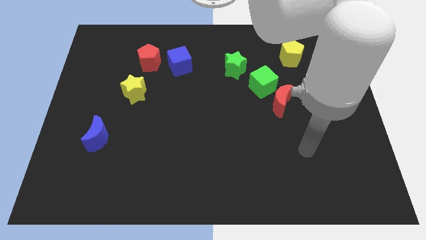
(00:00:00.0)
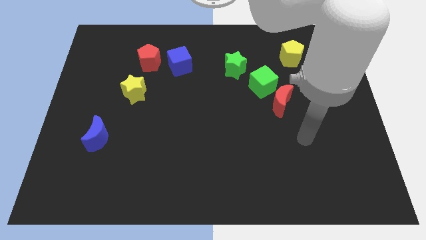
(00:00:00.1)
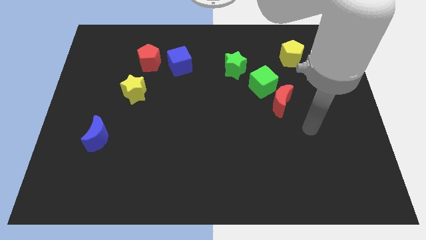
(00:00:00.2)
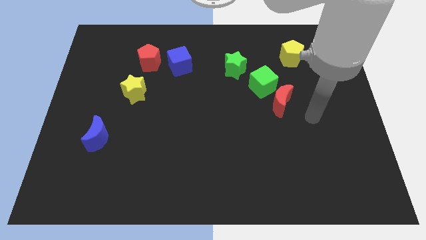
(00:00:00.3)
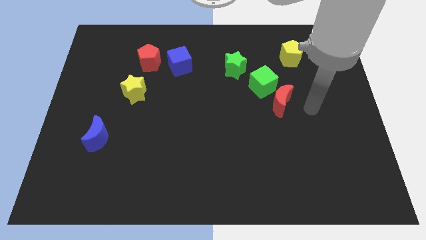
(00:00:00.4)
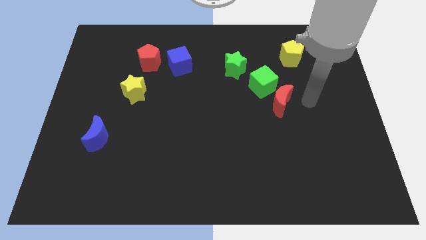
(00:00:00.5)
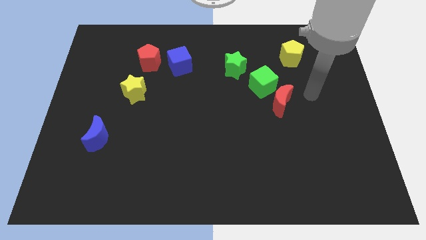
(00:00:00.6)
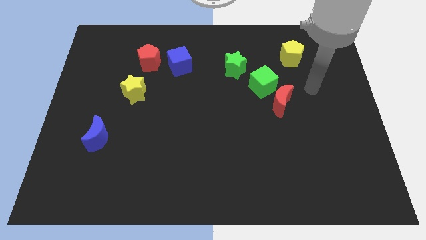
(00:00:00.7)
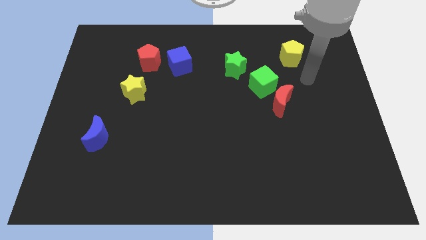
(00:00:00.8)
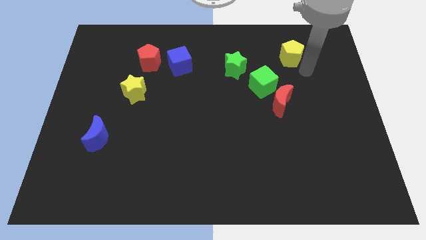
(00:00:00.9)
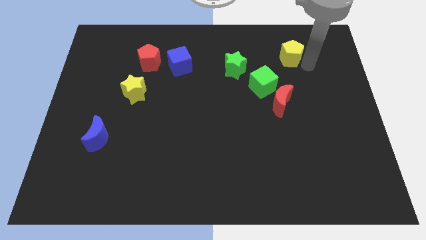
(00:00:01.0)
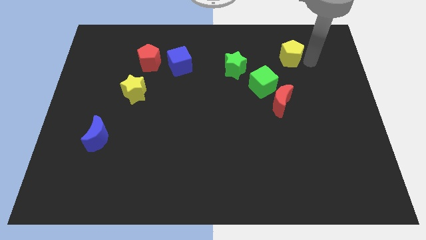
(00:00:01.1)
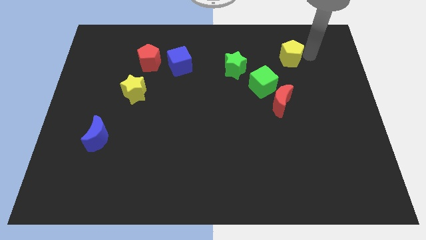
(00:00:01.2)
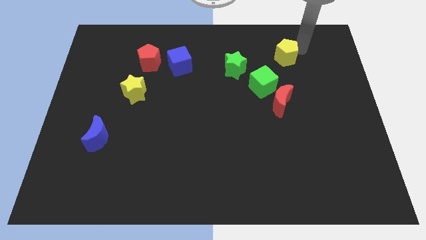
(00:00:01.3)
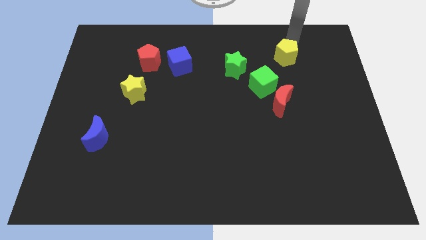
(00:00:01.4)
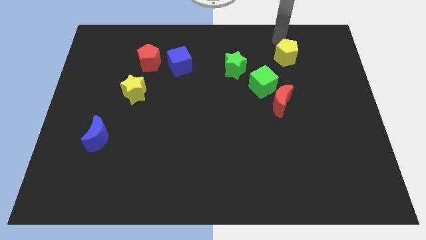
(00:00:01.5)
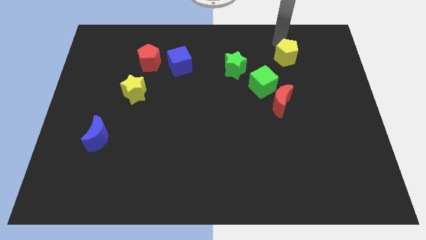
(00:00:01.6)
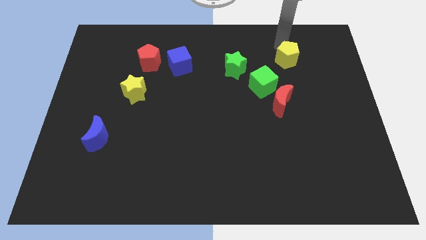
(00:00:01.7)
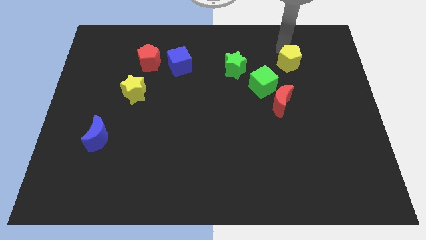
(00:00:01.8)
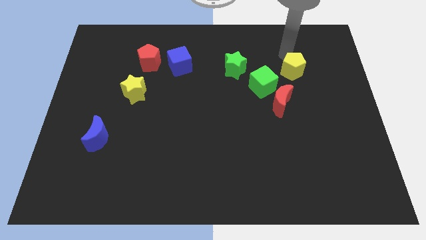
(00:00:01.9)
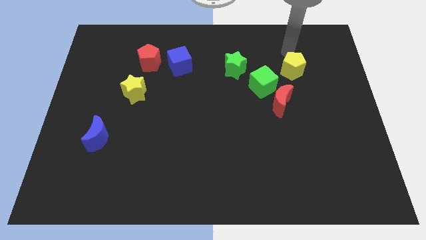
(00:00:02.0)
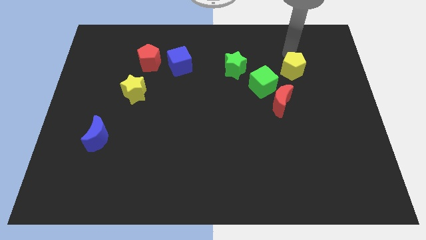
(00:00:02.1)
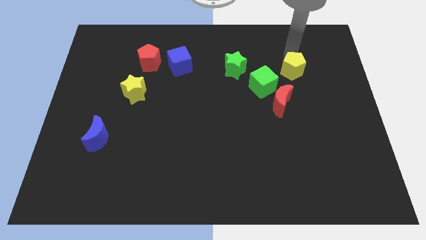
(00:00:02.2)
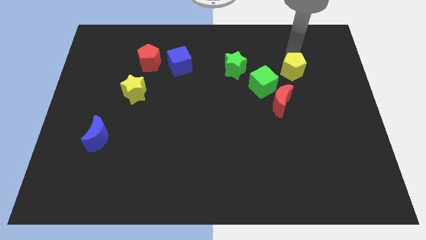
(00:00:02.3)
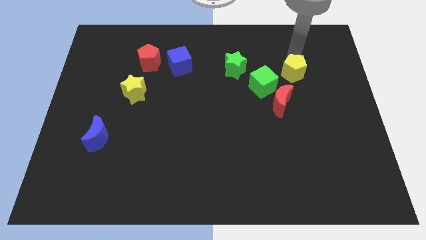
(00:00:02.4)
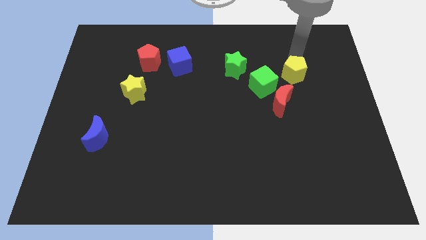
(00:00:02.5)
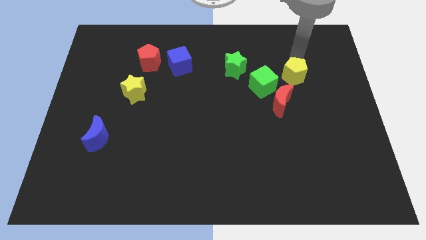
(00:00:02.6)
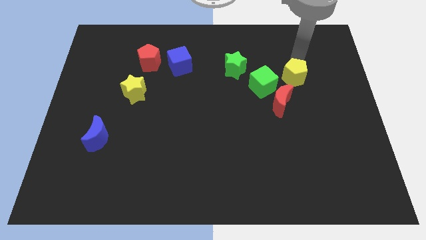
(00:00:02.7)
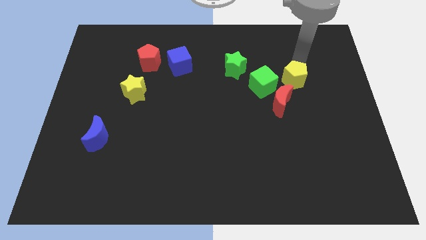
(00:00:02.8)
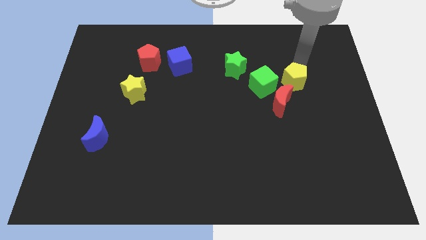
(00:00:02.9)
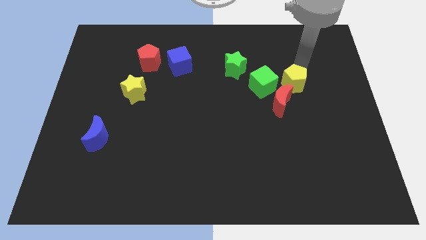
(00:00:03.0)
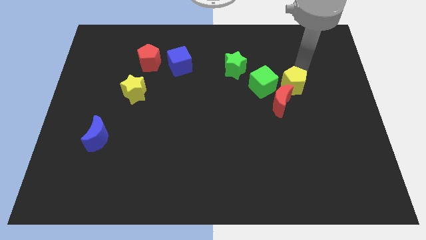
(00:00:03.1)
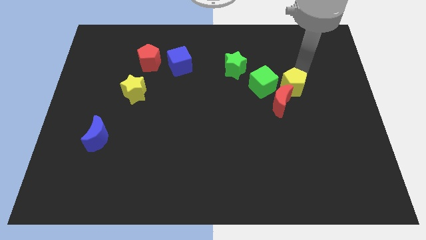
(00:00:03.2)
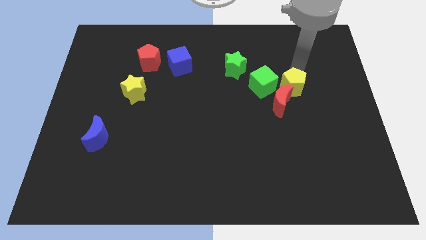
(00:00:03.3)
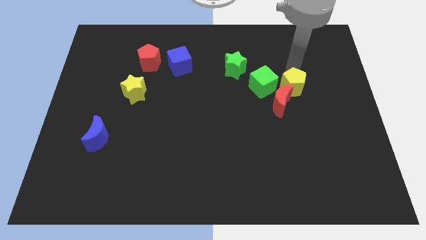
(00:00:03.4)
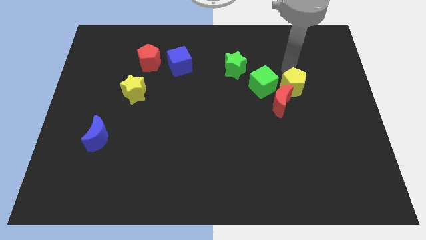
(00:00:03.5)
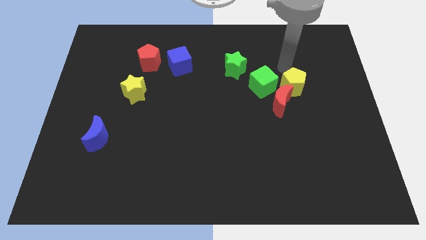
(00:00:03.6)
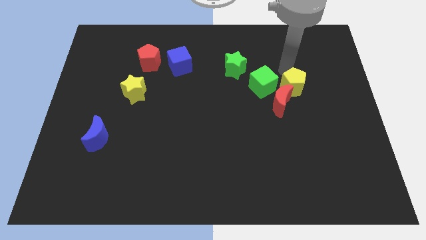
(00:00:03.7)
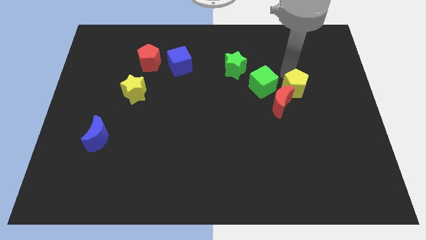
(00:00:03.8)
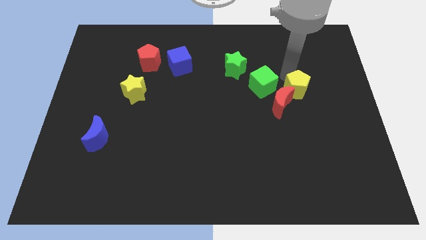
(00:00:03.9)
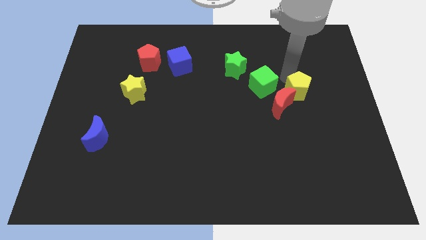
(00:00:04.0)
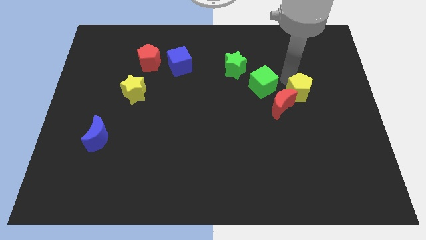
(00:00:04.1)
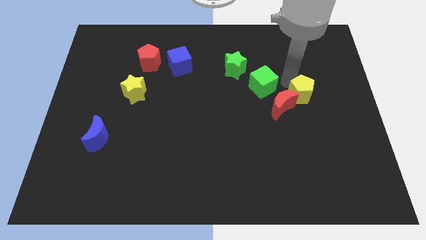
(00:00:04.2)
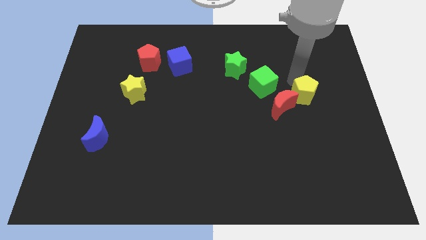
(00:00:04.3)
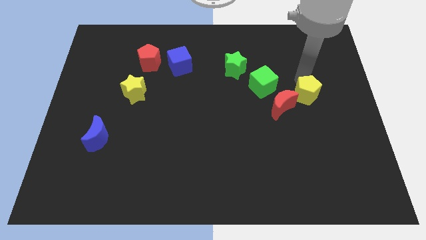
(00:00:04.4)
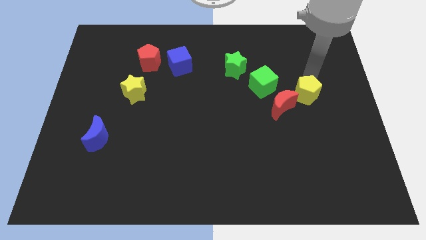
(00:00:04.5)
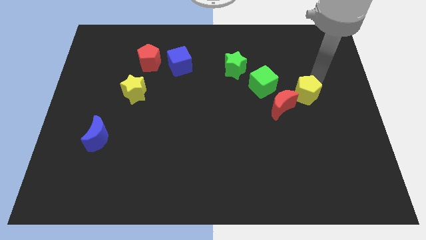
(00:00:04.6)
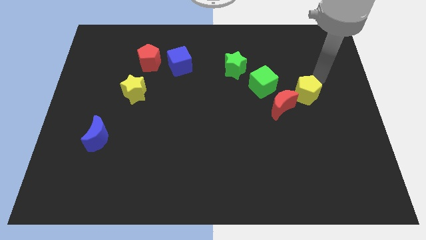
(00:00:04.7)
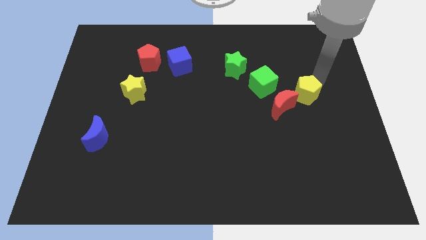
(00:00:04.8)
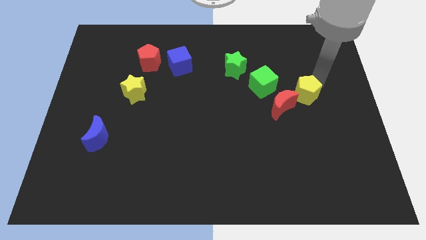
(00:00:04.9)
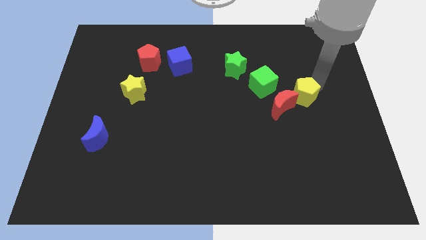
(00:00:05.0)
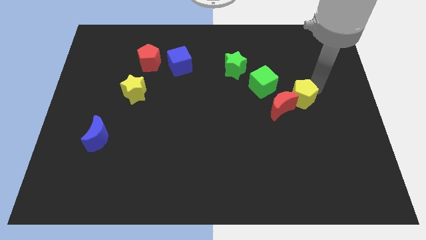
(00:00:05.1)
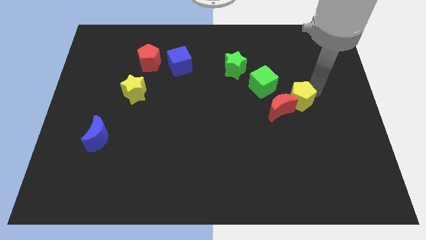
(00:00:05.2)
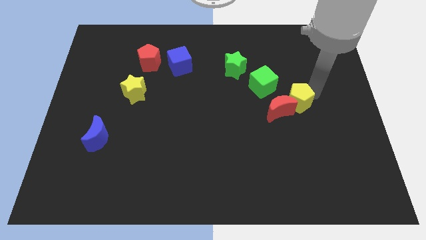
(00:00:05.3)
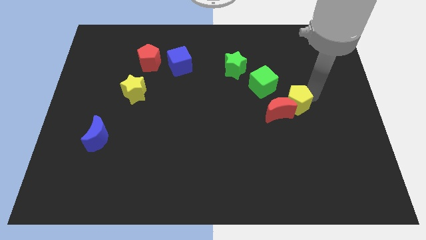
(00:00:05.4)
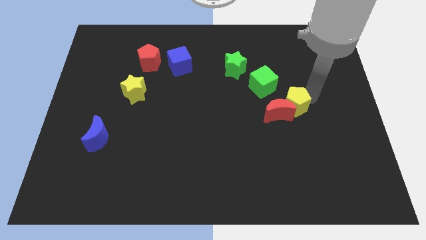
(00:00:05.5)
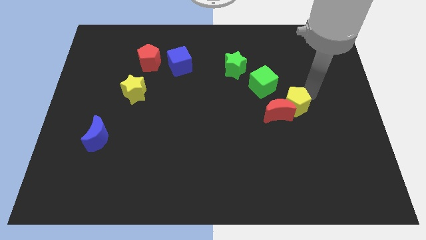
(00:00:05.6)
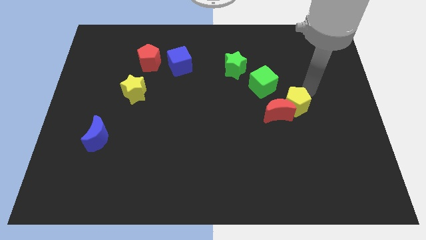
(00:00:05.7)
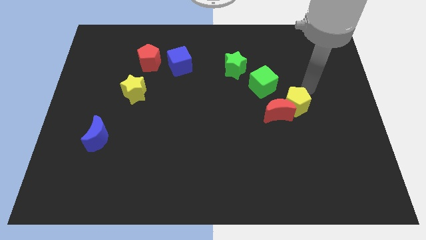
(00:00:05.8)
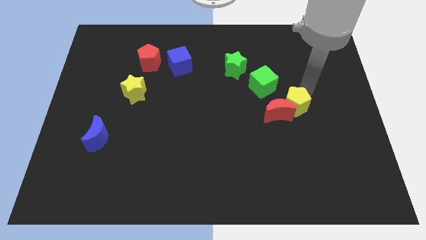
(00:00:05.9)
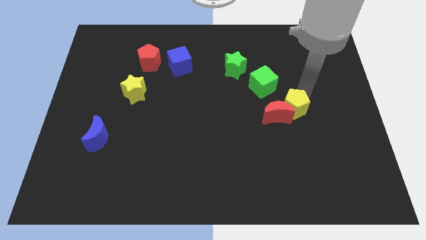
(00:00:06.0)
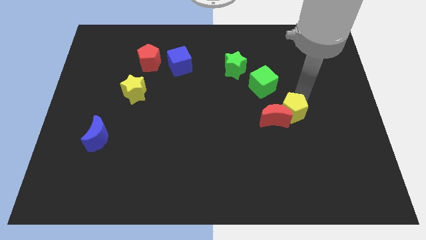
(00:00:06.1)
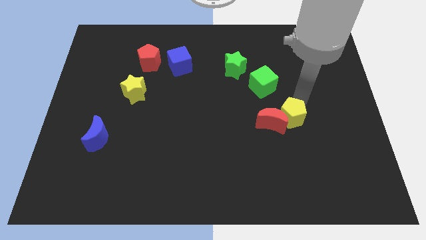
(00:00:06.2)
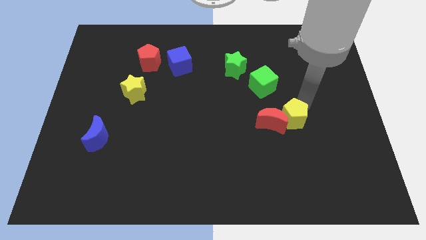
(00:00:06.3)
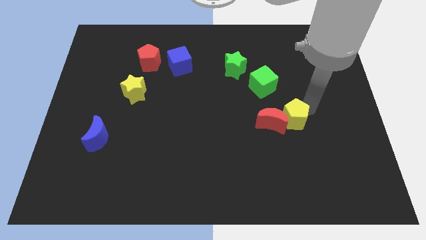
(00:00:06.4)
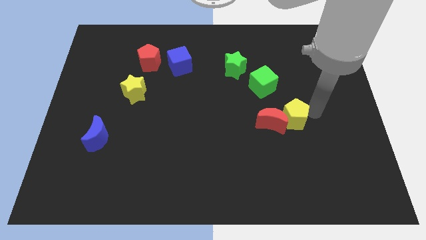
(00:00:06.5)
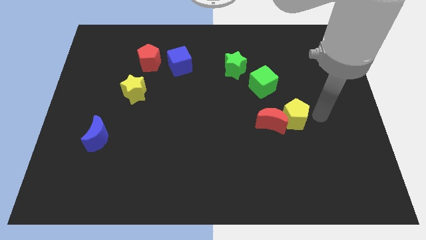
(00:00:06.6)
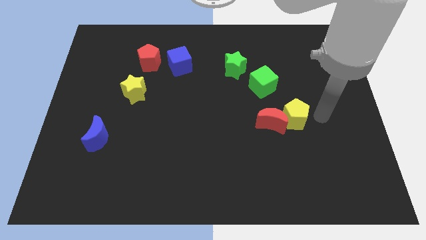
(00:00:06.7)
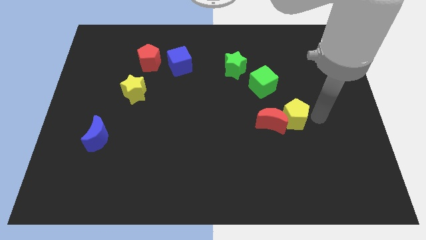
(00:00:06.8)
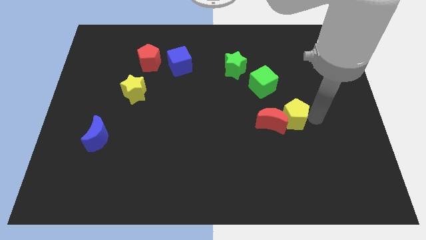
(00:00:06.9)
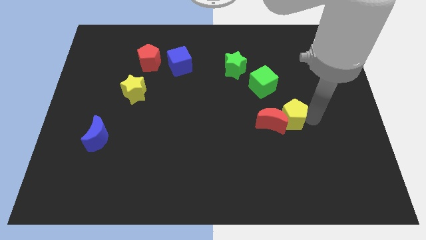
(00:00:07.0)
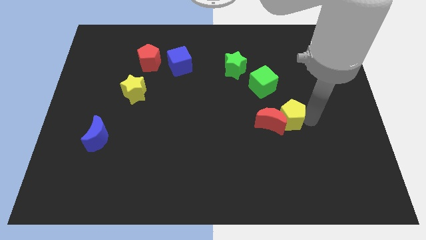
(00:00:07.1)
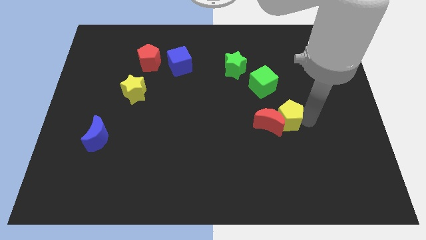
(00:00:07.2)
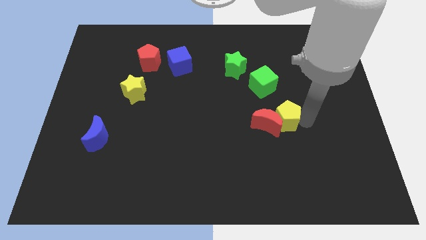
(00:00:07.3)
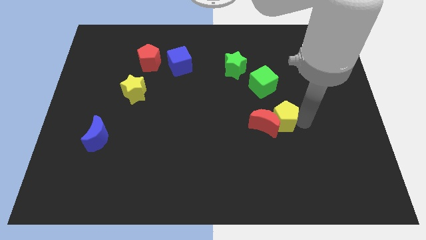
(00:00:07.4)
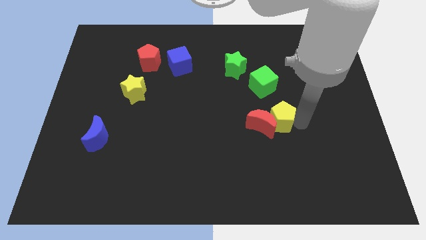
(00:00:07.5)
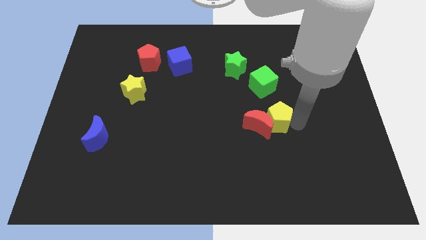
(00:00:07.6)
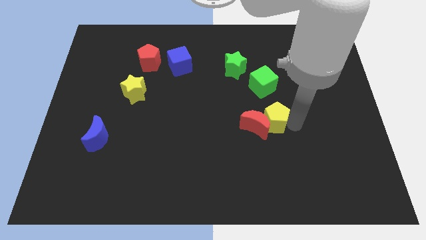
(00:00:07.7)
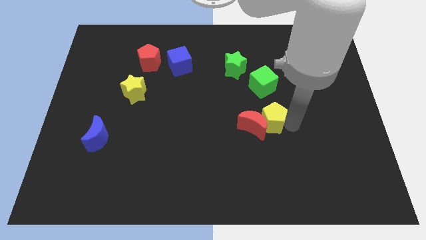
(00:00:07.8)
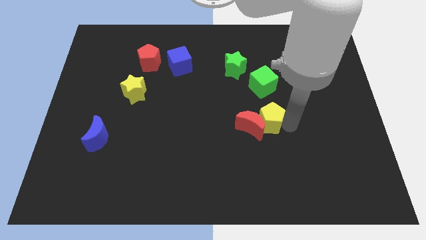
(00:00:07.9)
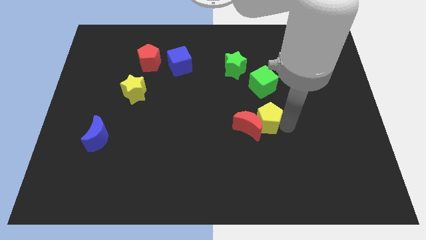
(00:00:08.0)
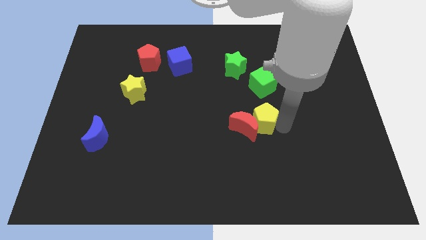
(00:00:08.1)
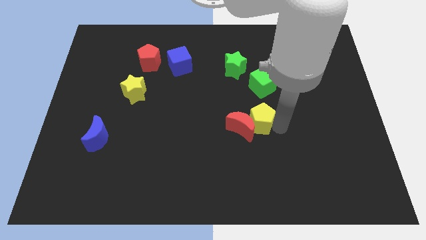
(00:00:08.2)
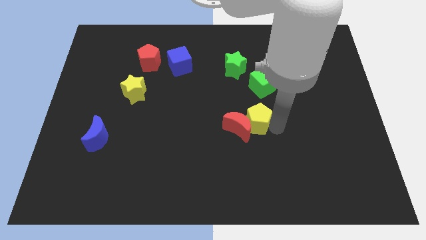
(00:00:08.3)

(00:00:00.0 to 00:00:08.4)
slide the yellow pentagon downwards and to the left
